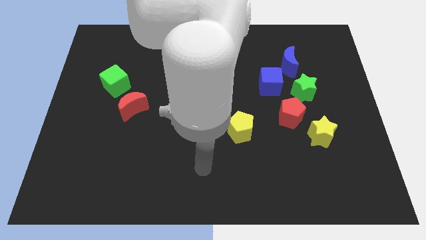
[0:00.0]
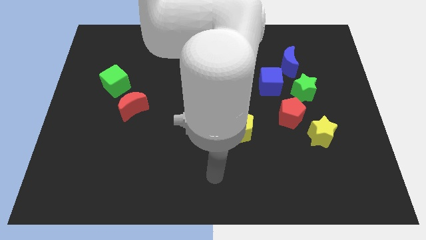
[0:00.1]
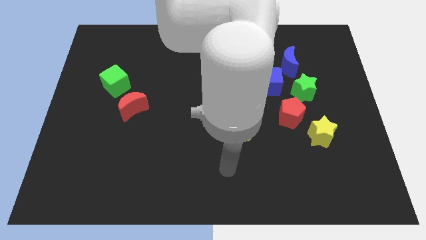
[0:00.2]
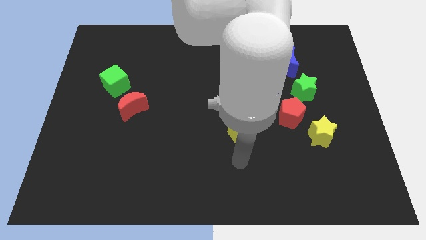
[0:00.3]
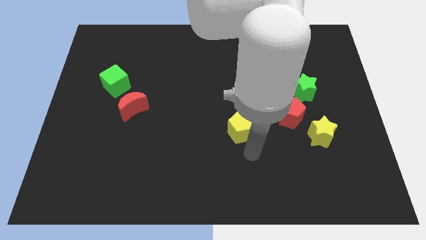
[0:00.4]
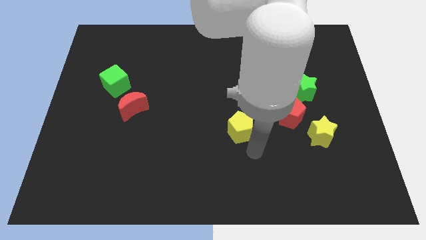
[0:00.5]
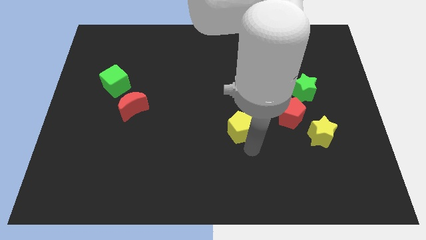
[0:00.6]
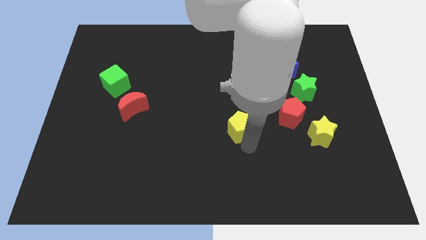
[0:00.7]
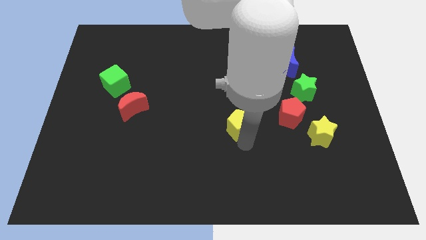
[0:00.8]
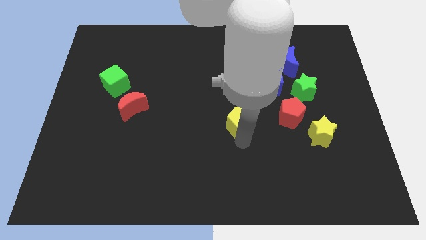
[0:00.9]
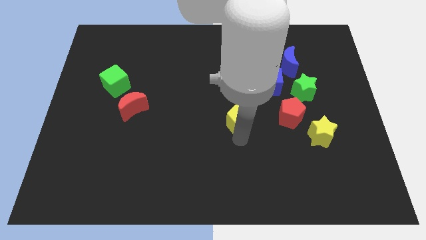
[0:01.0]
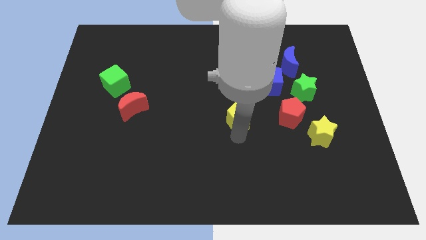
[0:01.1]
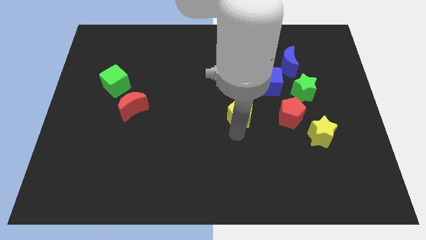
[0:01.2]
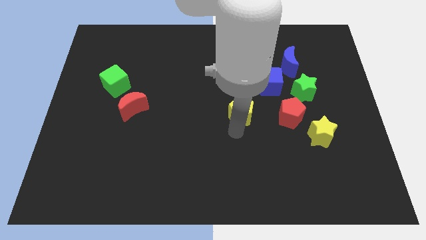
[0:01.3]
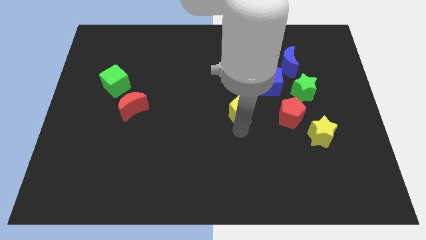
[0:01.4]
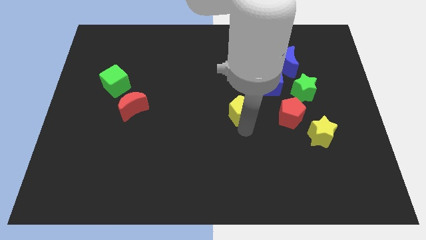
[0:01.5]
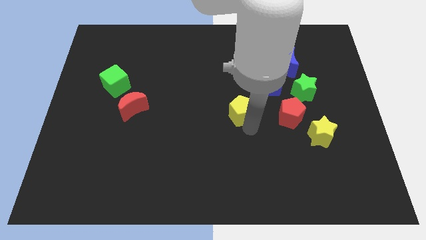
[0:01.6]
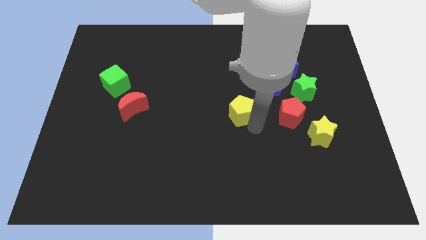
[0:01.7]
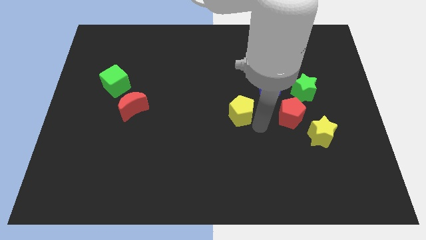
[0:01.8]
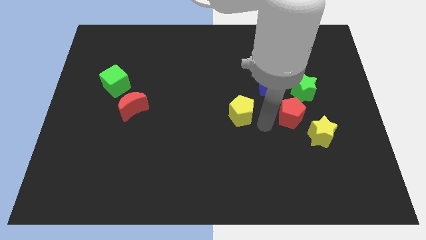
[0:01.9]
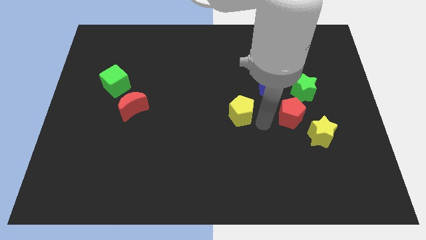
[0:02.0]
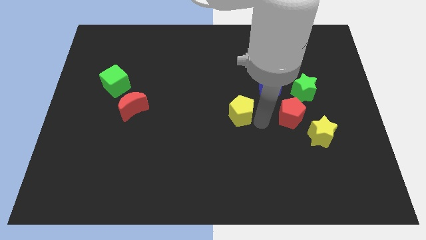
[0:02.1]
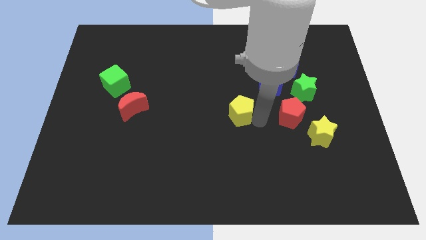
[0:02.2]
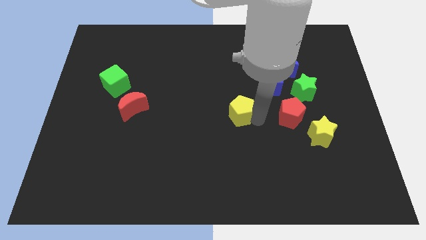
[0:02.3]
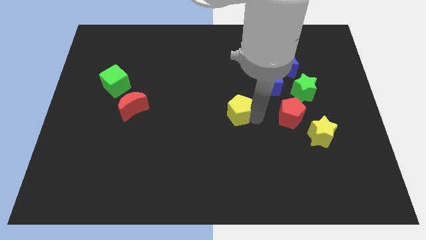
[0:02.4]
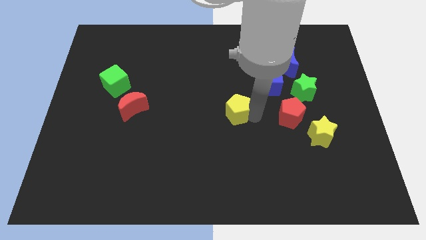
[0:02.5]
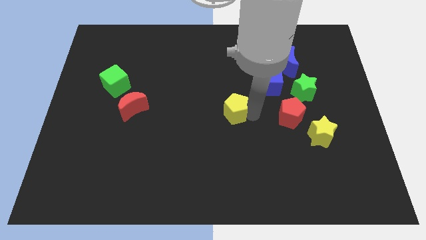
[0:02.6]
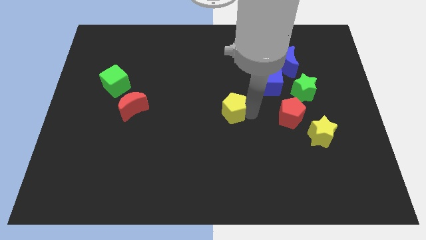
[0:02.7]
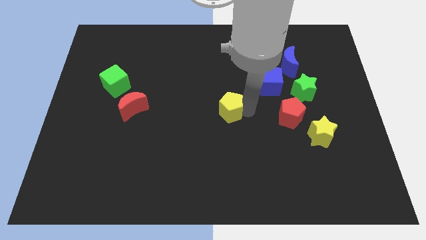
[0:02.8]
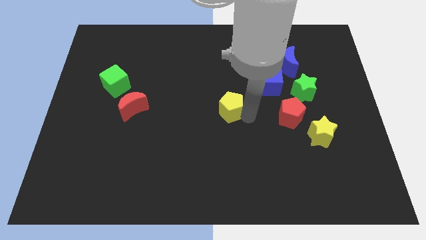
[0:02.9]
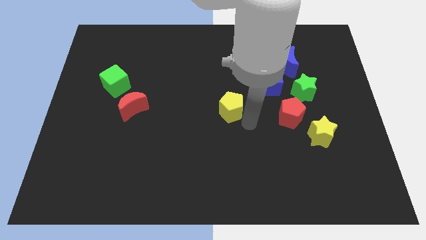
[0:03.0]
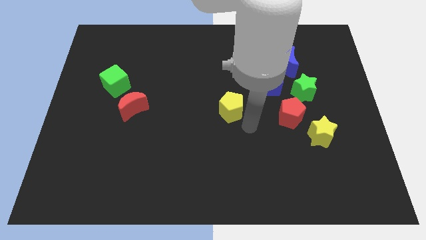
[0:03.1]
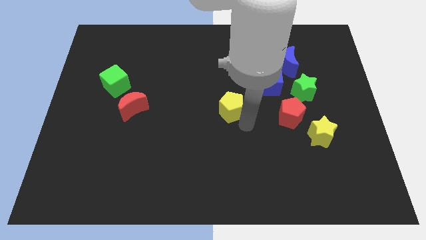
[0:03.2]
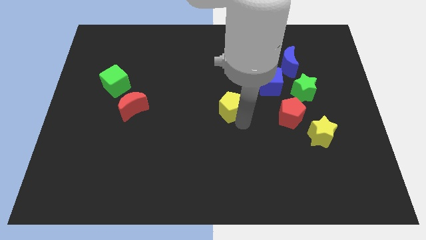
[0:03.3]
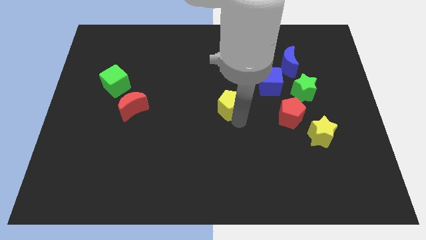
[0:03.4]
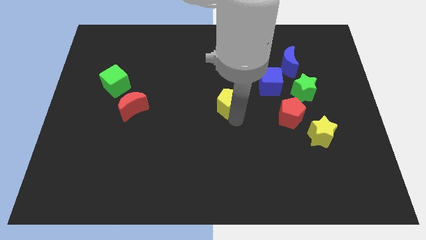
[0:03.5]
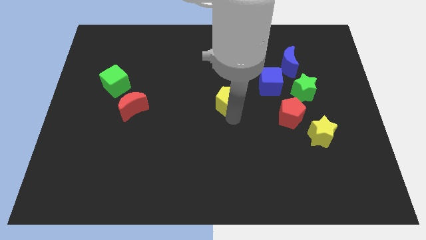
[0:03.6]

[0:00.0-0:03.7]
push the yellow pentagon a bit up and left diagonally

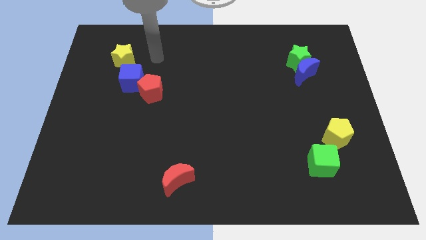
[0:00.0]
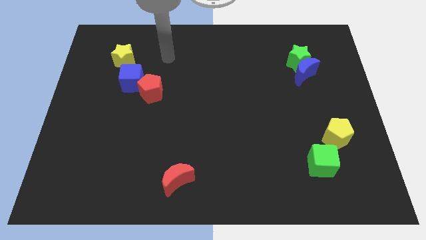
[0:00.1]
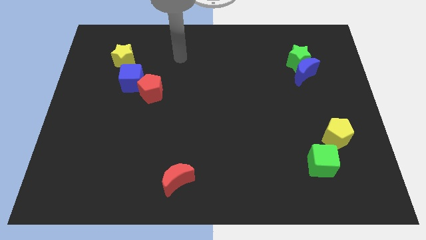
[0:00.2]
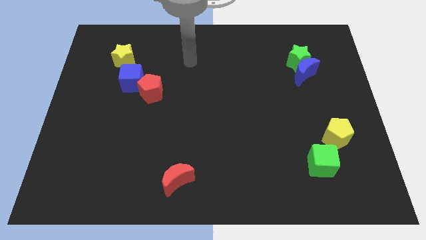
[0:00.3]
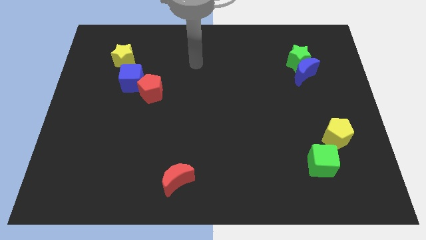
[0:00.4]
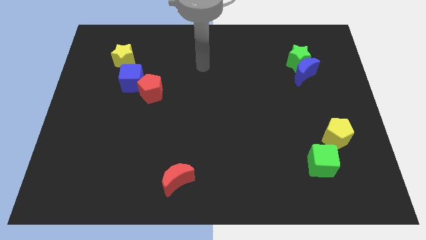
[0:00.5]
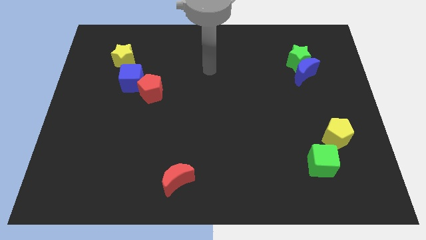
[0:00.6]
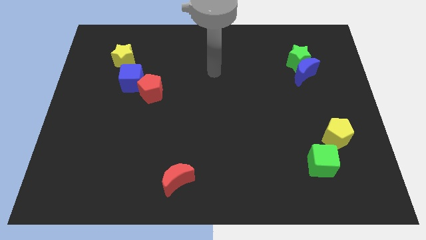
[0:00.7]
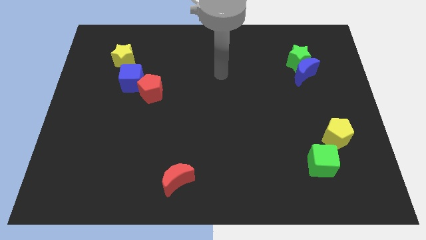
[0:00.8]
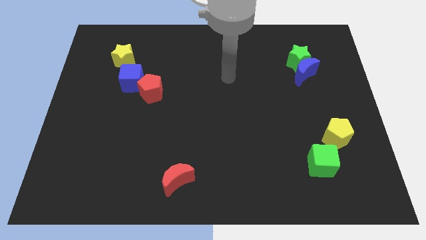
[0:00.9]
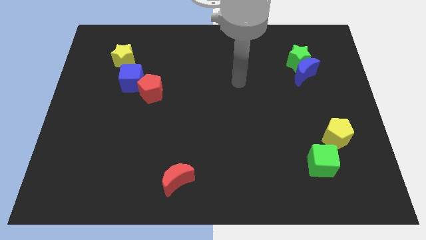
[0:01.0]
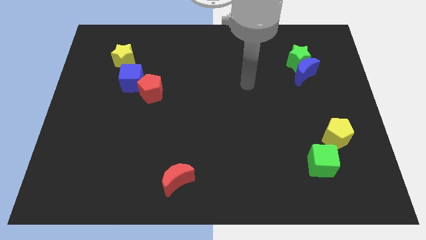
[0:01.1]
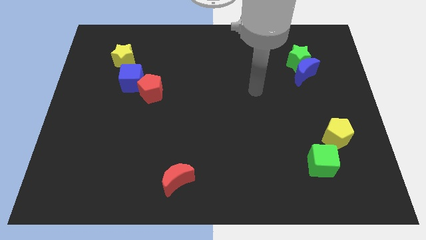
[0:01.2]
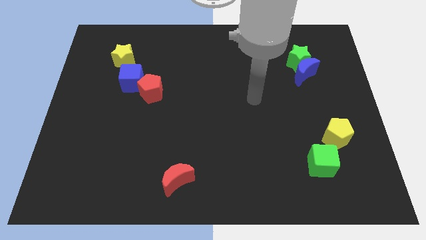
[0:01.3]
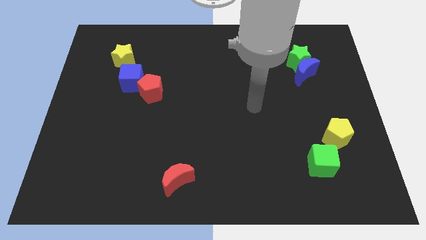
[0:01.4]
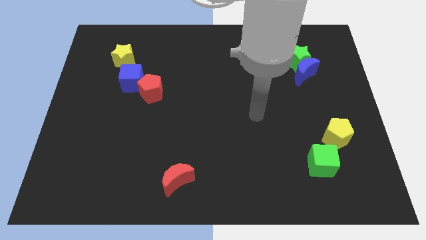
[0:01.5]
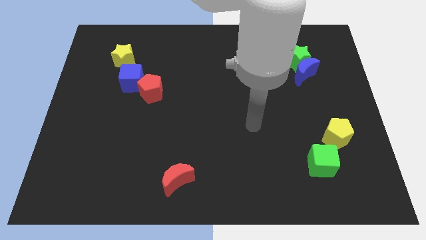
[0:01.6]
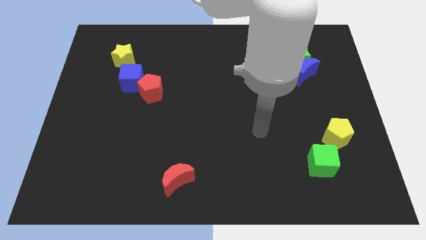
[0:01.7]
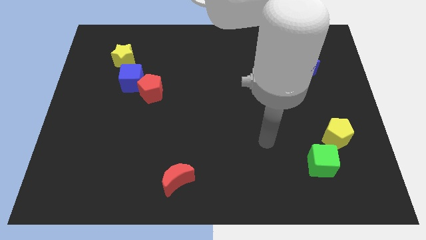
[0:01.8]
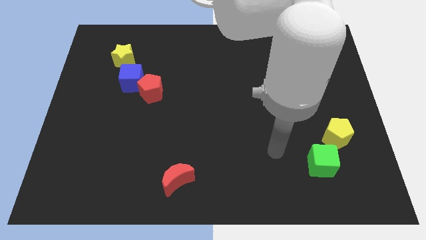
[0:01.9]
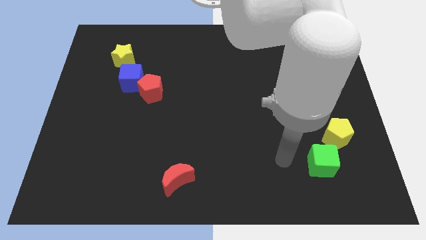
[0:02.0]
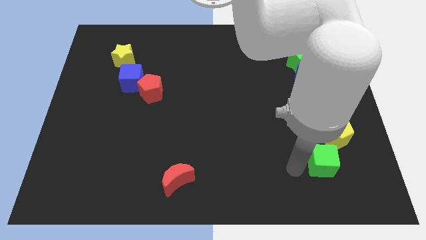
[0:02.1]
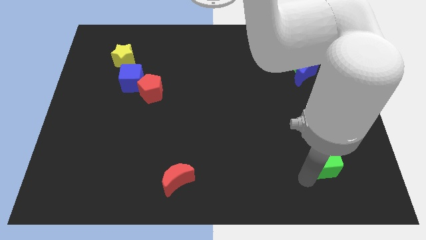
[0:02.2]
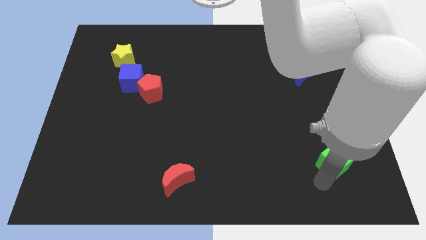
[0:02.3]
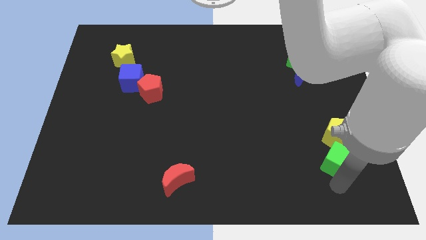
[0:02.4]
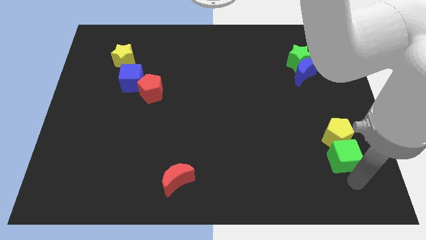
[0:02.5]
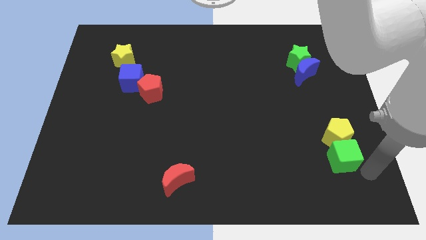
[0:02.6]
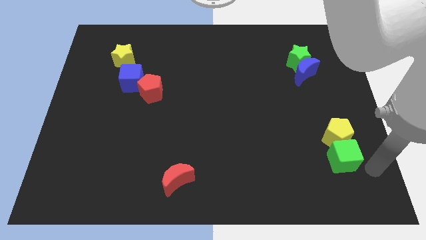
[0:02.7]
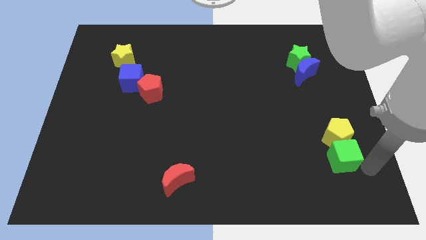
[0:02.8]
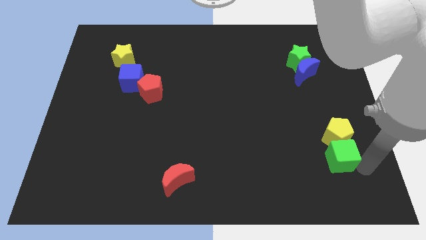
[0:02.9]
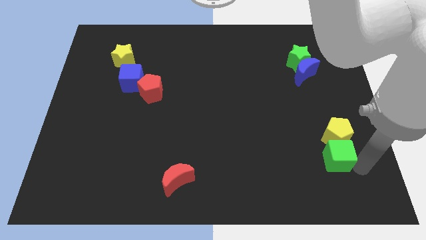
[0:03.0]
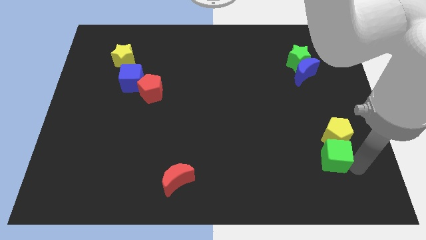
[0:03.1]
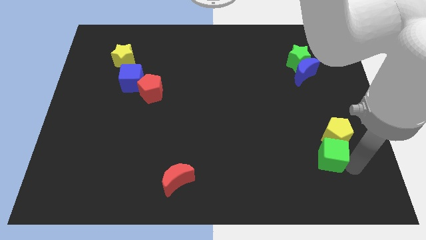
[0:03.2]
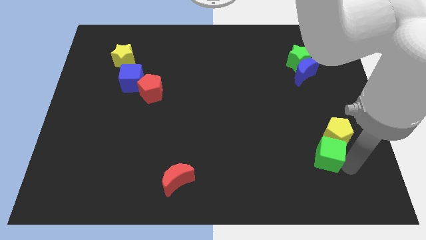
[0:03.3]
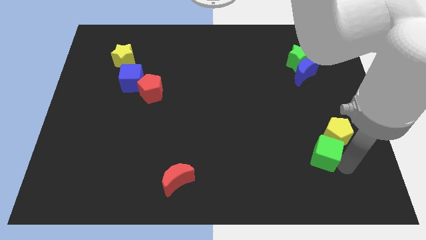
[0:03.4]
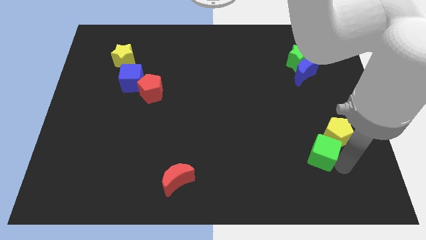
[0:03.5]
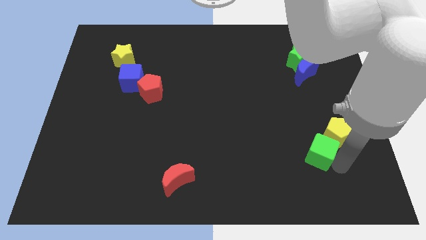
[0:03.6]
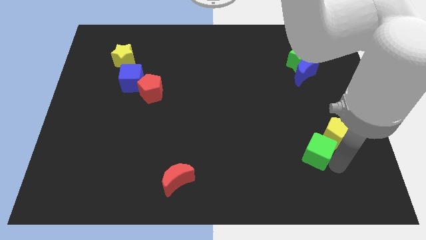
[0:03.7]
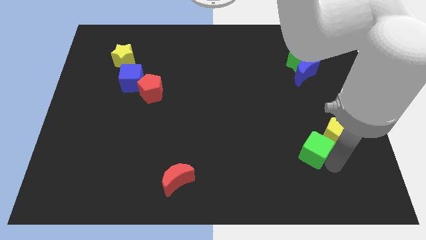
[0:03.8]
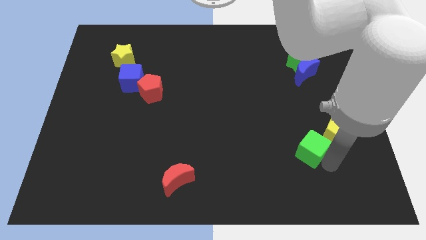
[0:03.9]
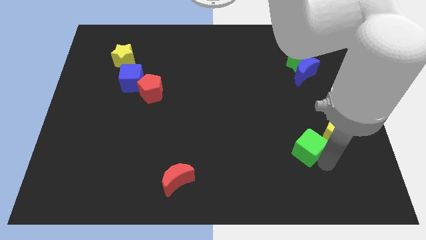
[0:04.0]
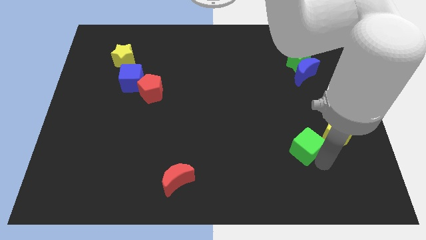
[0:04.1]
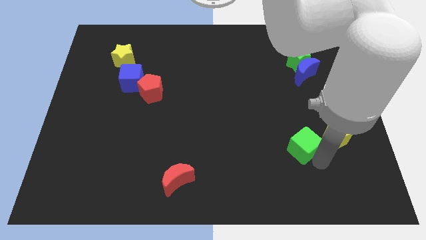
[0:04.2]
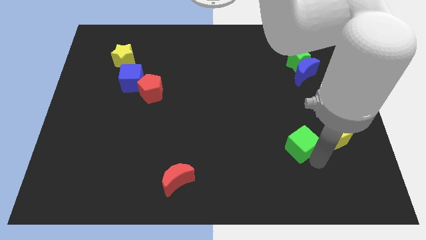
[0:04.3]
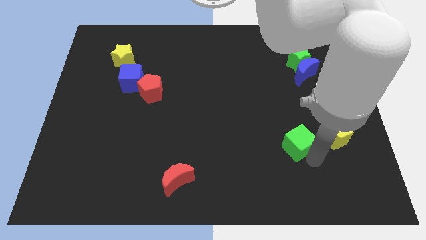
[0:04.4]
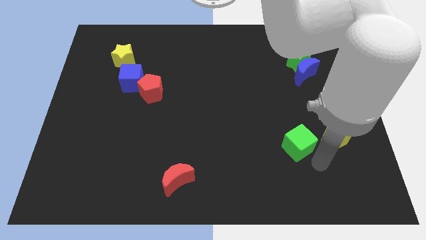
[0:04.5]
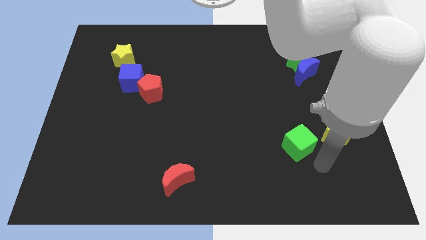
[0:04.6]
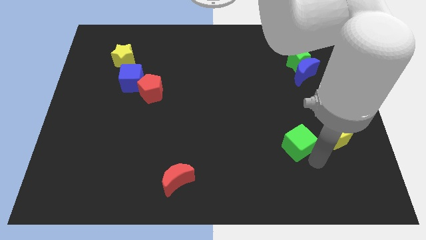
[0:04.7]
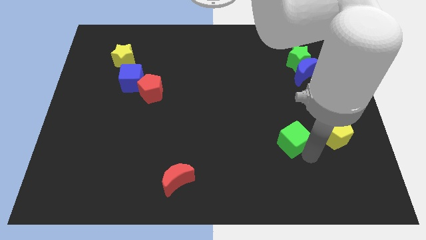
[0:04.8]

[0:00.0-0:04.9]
slightly slide the green cube up and then left
